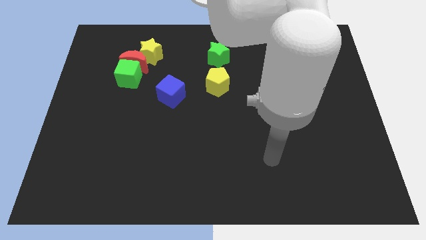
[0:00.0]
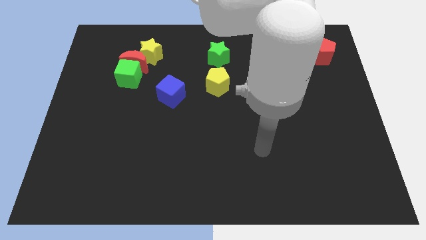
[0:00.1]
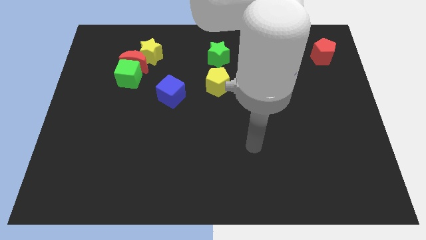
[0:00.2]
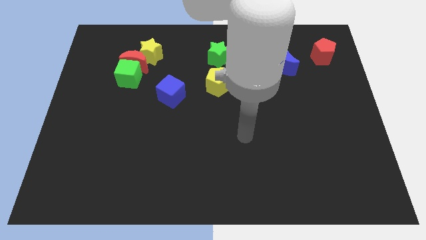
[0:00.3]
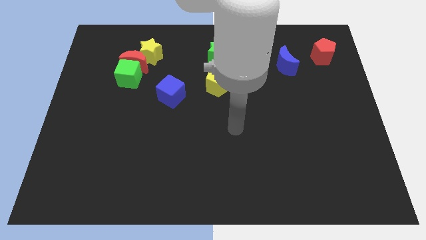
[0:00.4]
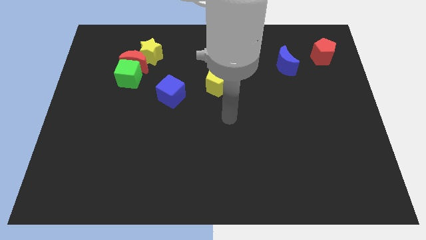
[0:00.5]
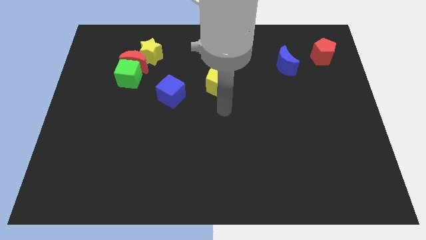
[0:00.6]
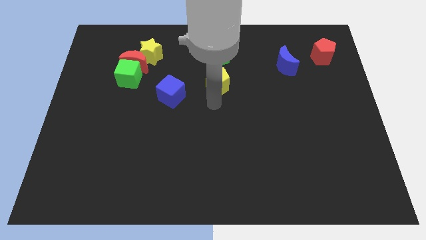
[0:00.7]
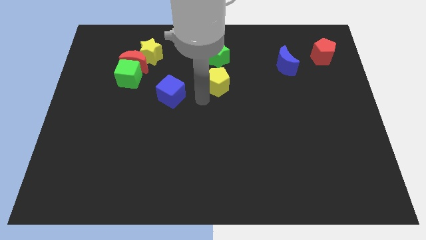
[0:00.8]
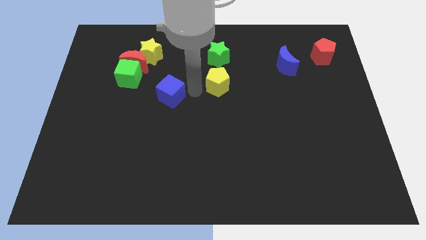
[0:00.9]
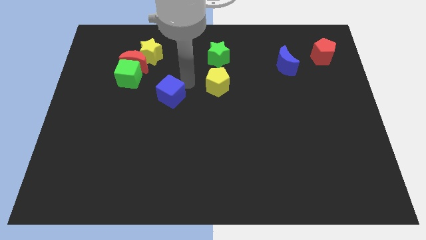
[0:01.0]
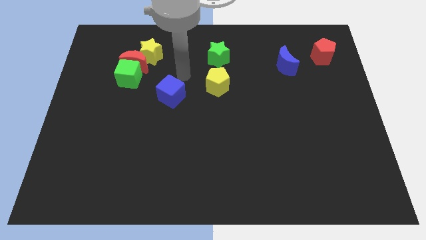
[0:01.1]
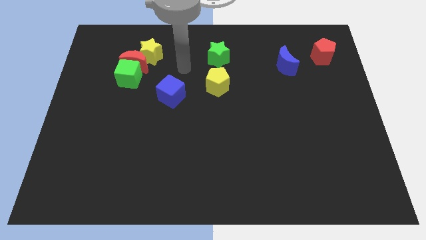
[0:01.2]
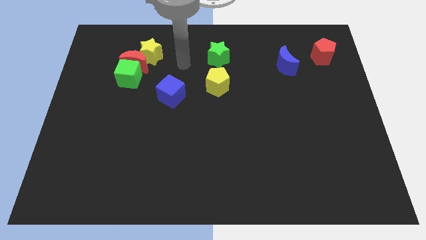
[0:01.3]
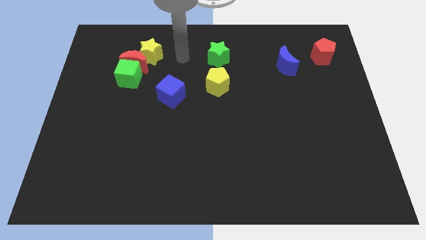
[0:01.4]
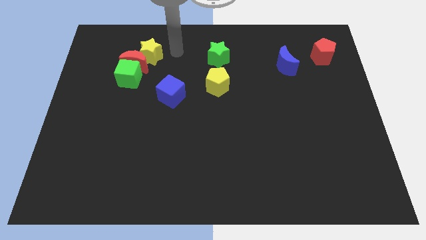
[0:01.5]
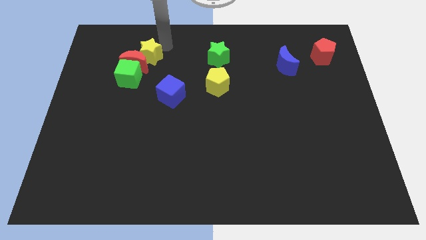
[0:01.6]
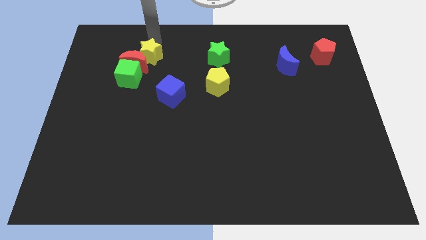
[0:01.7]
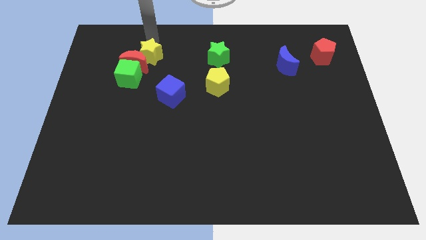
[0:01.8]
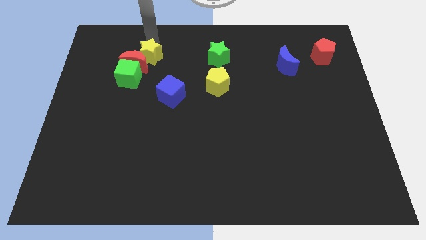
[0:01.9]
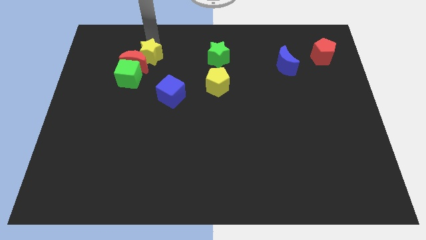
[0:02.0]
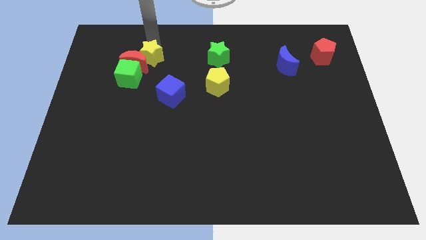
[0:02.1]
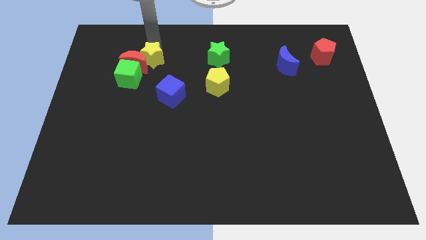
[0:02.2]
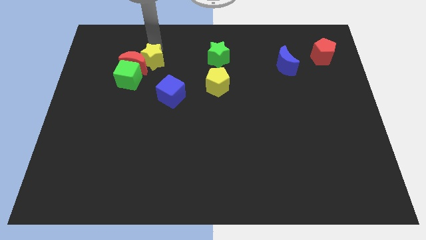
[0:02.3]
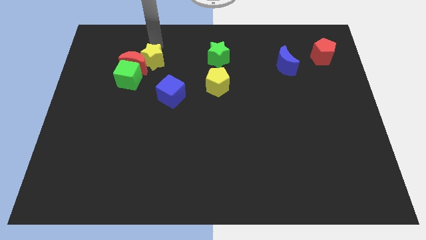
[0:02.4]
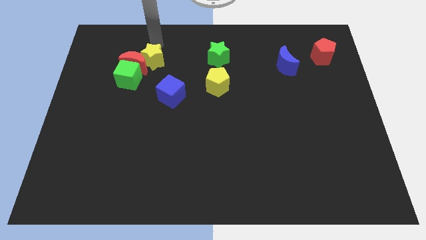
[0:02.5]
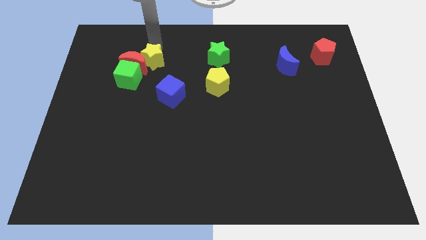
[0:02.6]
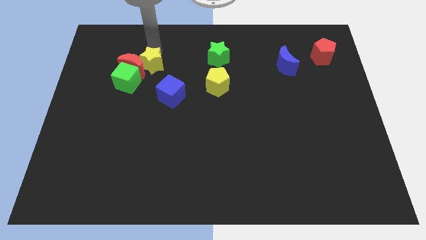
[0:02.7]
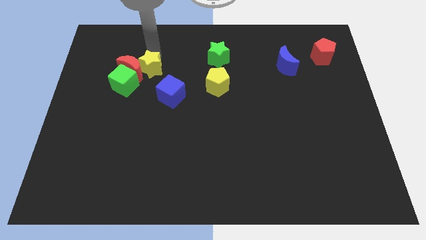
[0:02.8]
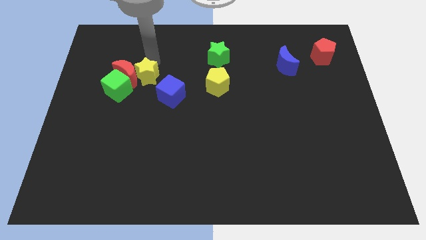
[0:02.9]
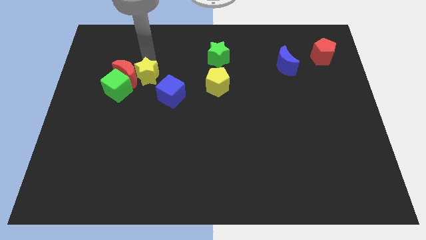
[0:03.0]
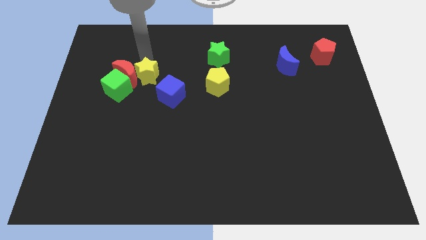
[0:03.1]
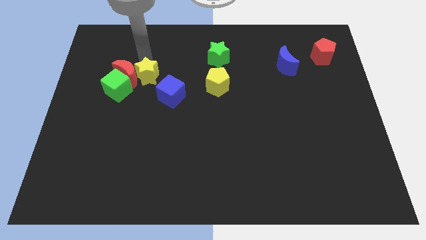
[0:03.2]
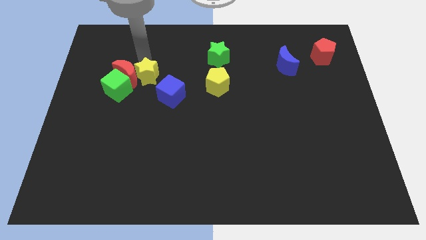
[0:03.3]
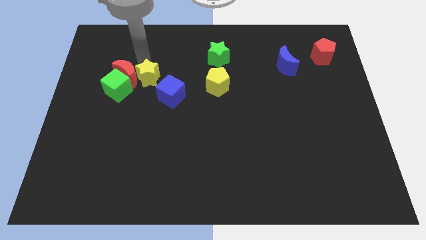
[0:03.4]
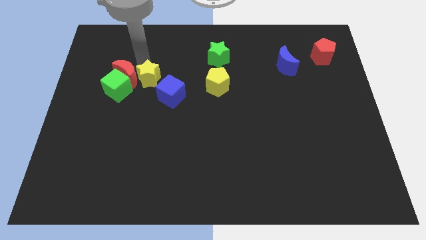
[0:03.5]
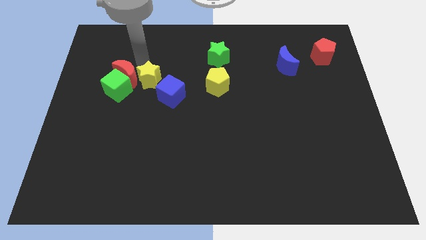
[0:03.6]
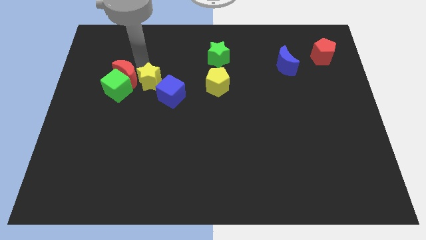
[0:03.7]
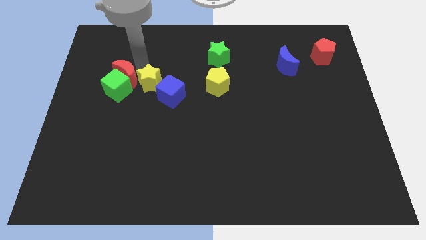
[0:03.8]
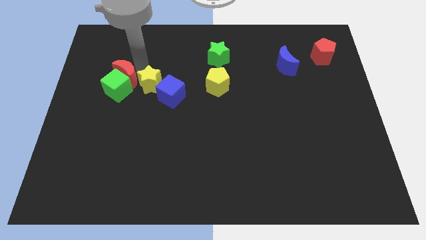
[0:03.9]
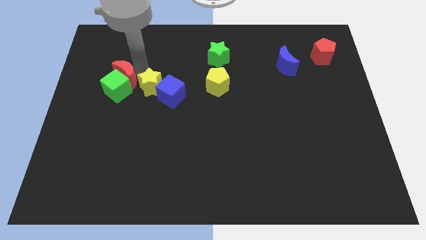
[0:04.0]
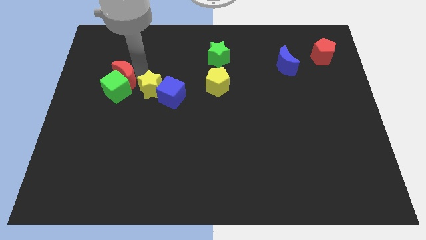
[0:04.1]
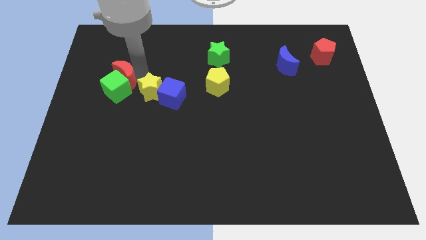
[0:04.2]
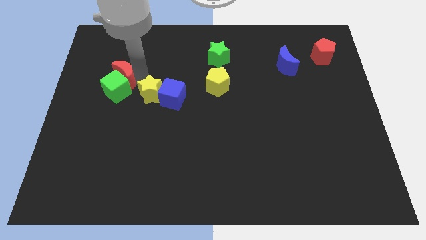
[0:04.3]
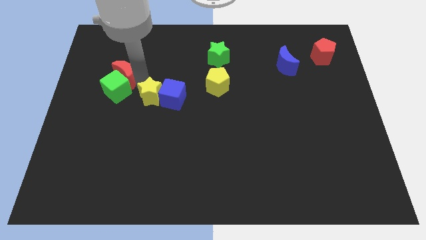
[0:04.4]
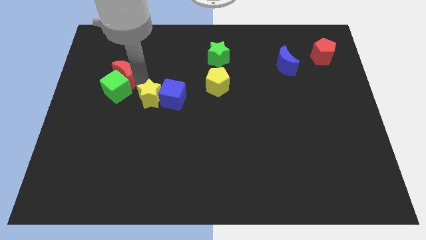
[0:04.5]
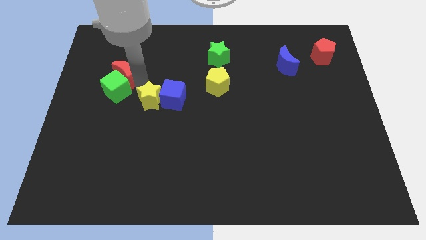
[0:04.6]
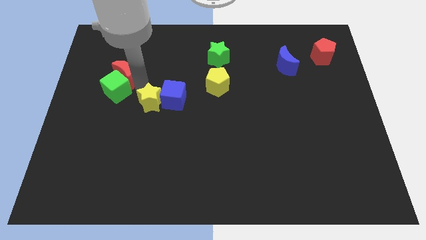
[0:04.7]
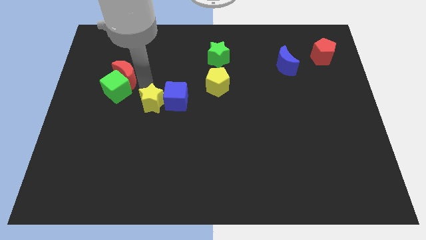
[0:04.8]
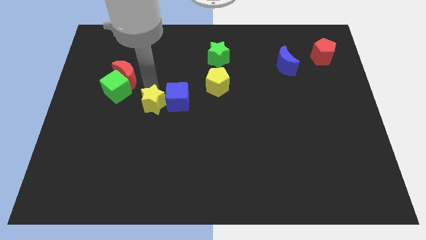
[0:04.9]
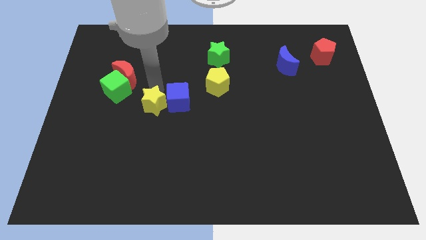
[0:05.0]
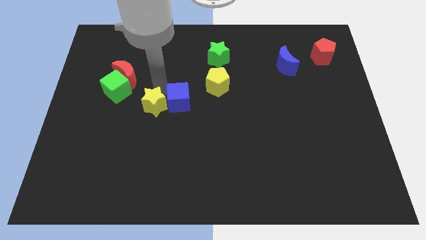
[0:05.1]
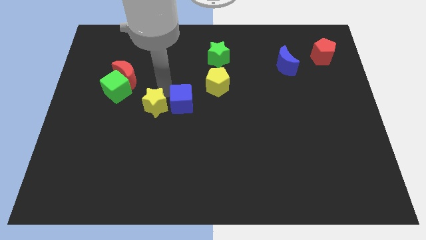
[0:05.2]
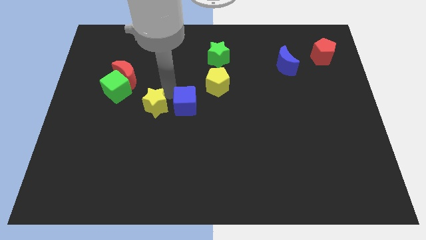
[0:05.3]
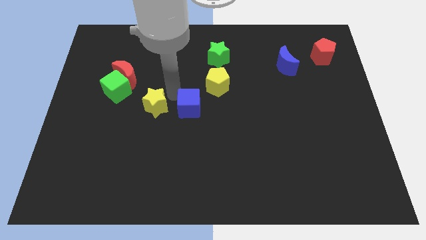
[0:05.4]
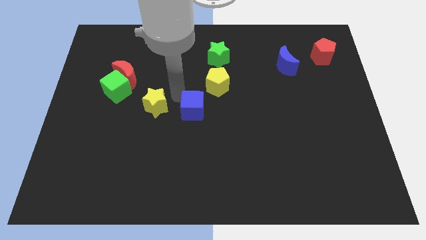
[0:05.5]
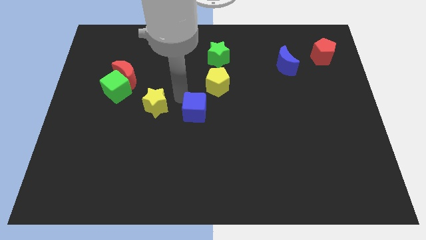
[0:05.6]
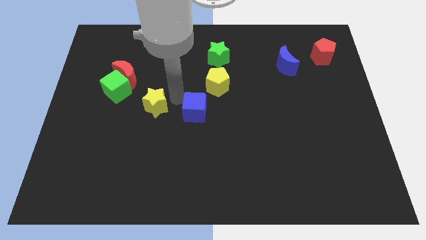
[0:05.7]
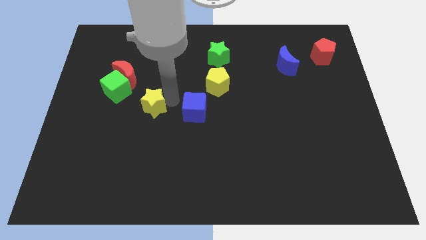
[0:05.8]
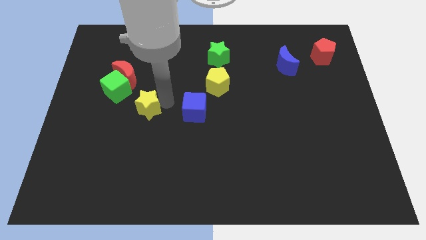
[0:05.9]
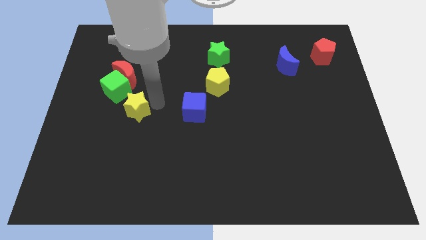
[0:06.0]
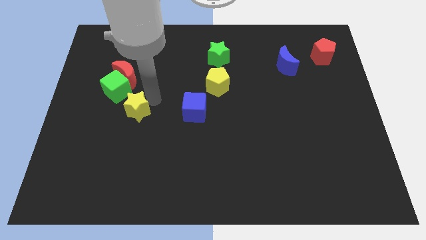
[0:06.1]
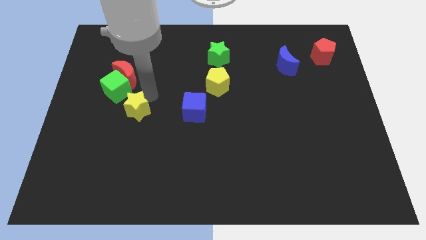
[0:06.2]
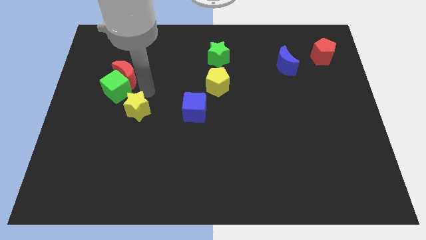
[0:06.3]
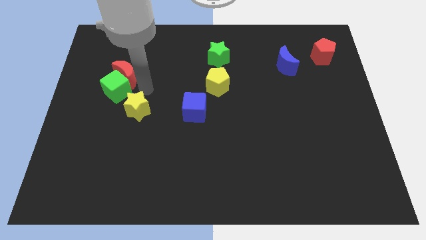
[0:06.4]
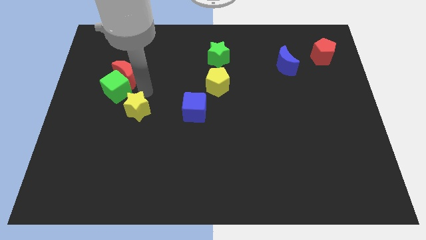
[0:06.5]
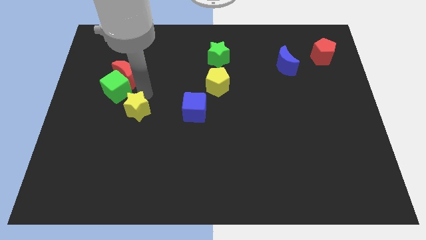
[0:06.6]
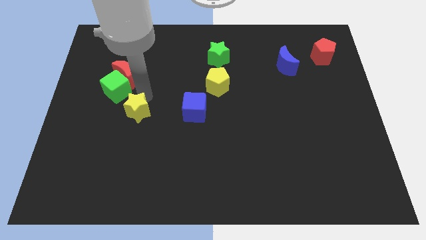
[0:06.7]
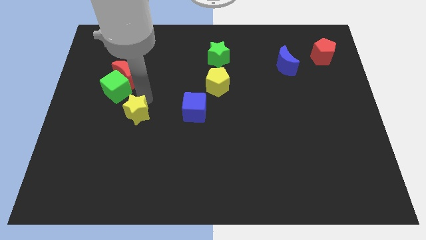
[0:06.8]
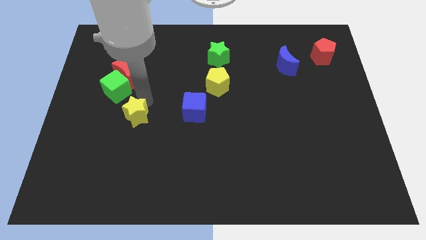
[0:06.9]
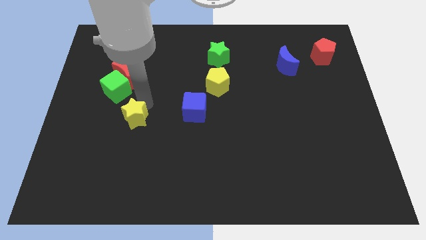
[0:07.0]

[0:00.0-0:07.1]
slide the yellow star downwards

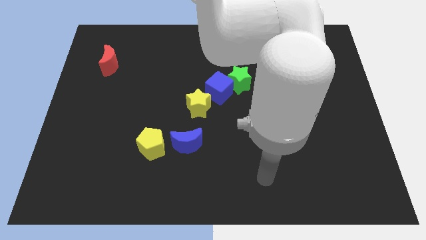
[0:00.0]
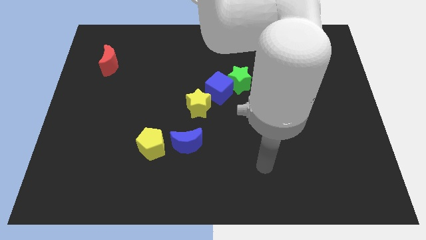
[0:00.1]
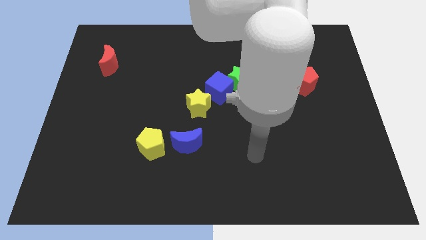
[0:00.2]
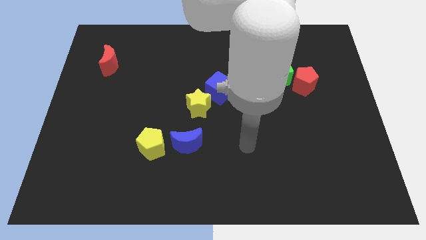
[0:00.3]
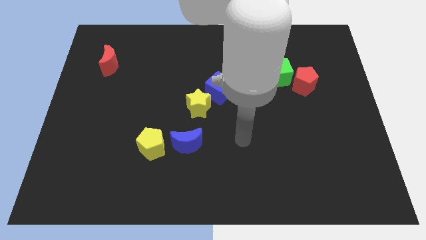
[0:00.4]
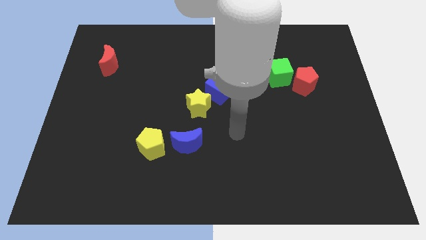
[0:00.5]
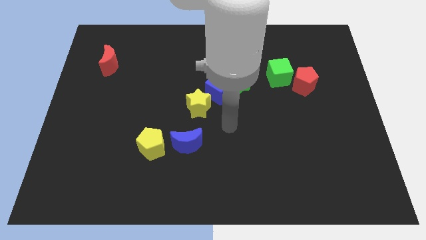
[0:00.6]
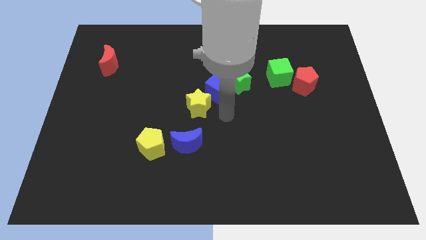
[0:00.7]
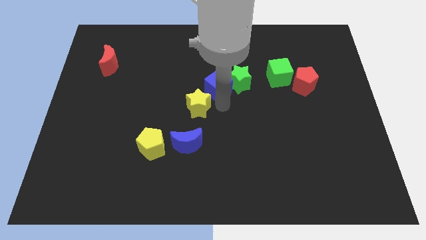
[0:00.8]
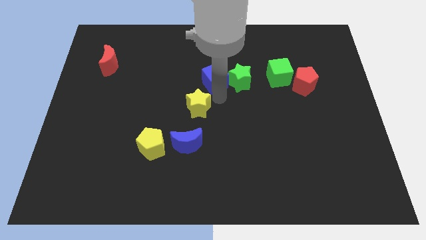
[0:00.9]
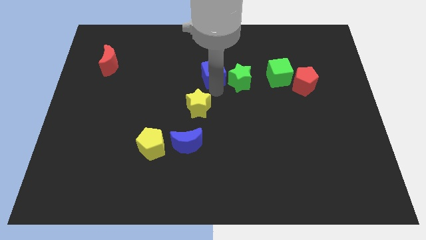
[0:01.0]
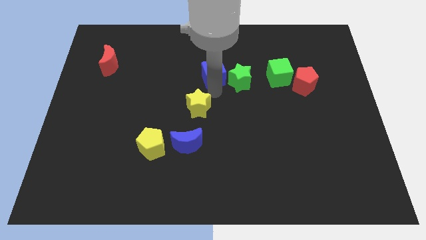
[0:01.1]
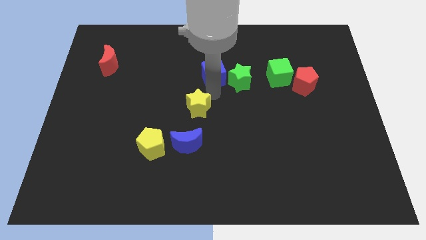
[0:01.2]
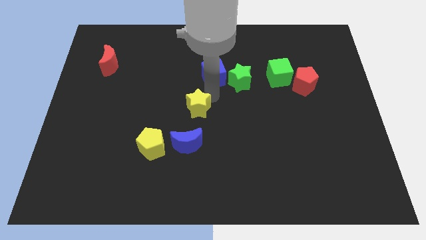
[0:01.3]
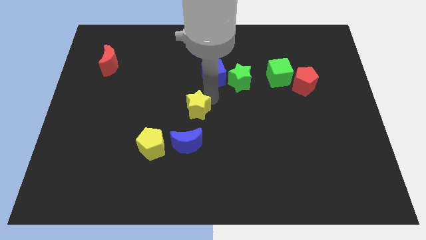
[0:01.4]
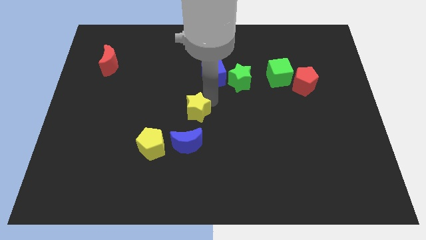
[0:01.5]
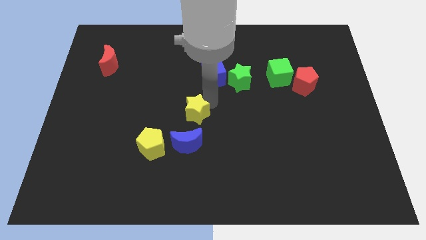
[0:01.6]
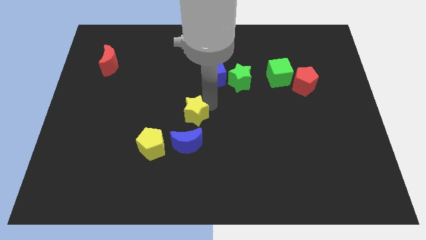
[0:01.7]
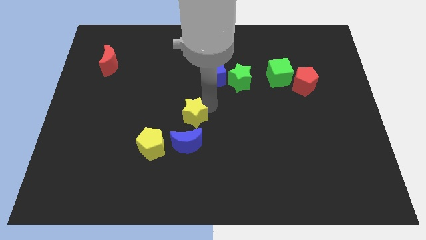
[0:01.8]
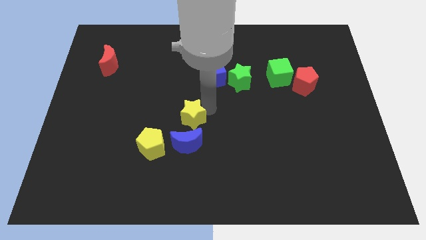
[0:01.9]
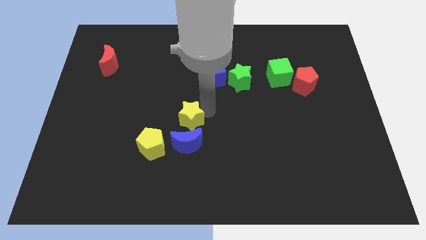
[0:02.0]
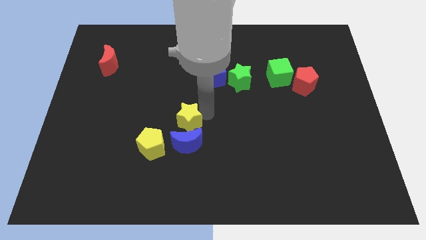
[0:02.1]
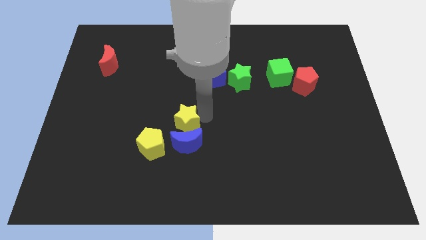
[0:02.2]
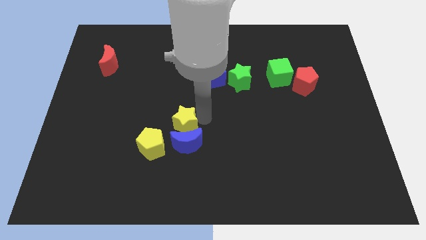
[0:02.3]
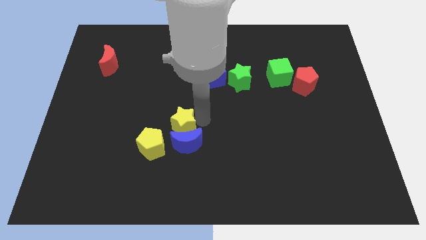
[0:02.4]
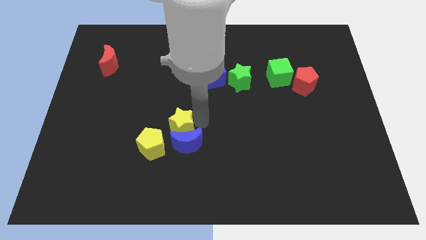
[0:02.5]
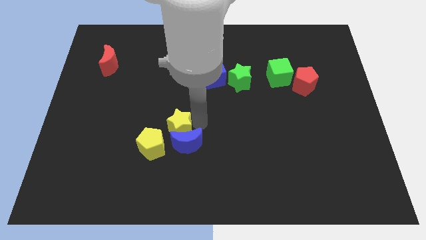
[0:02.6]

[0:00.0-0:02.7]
move the yellow star down and left somewhat
